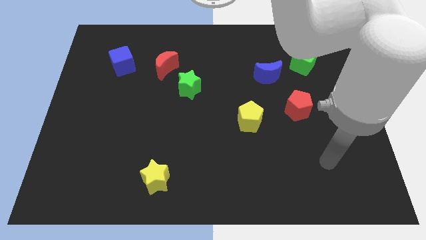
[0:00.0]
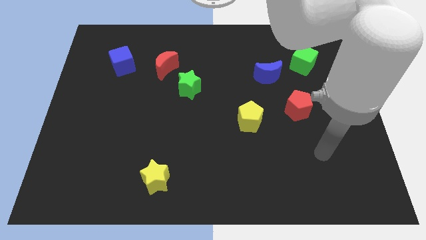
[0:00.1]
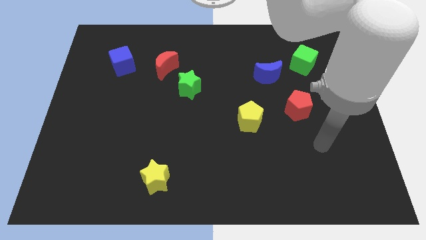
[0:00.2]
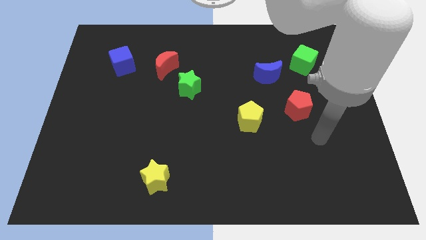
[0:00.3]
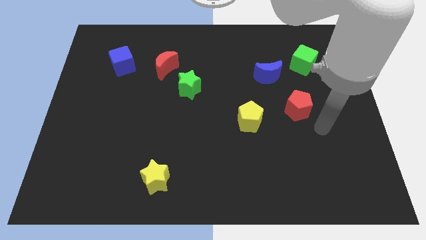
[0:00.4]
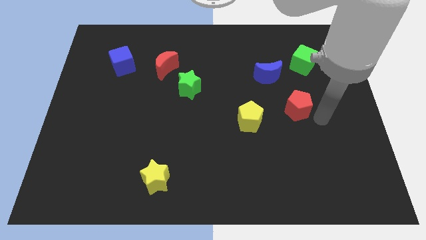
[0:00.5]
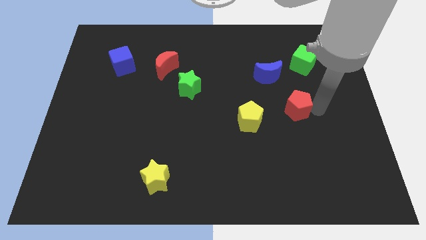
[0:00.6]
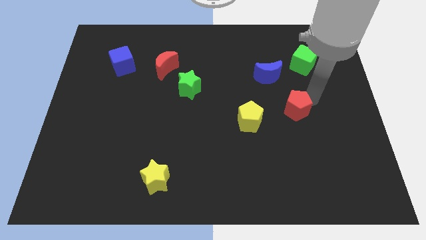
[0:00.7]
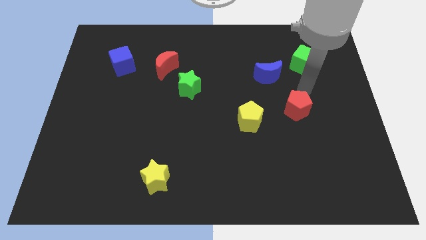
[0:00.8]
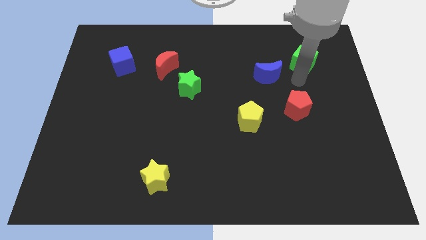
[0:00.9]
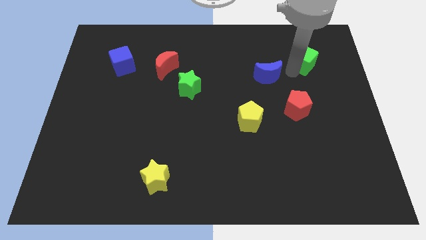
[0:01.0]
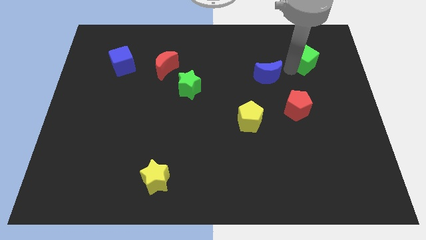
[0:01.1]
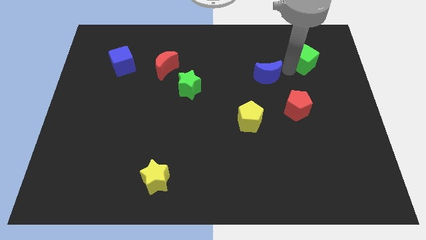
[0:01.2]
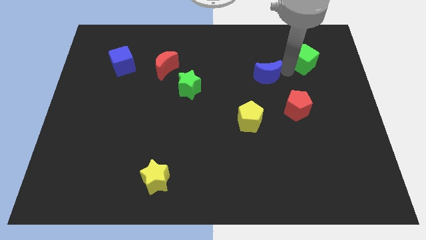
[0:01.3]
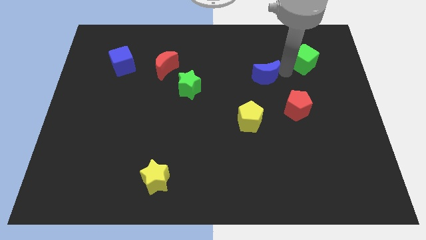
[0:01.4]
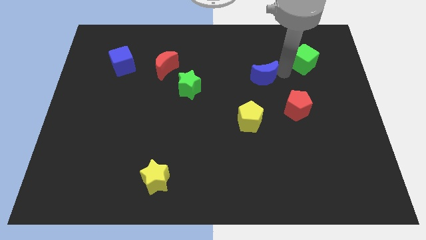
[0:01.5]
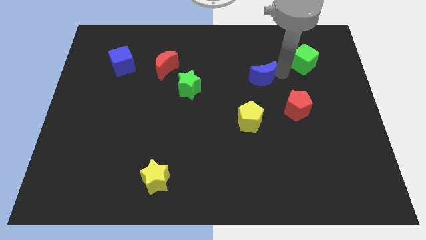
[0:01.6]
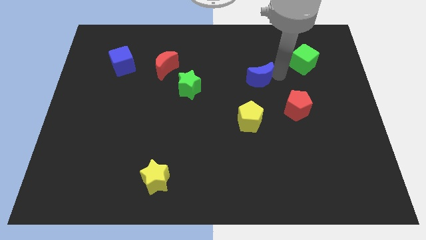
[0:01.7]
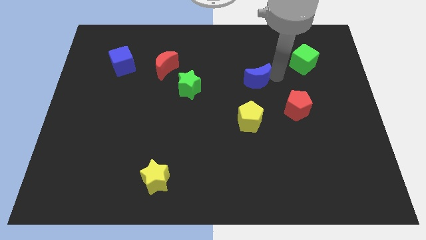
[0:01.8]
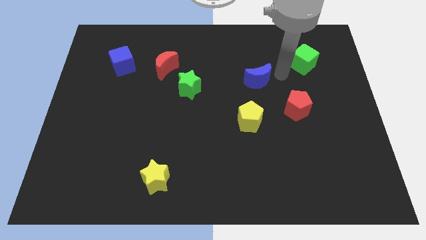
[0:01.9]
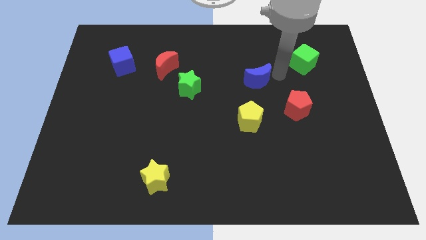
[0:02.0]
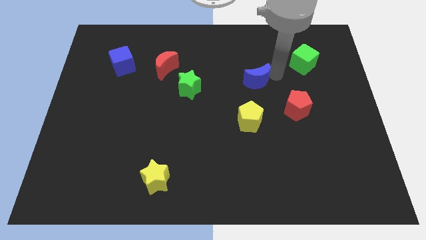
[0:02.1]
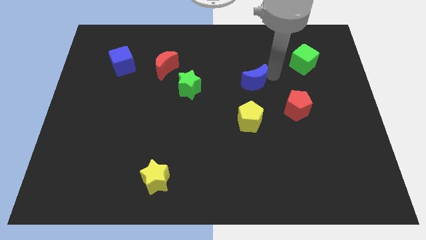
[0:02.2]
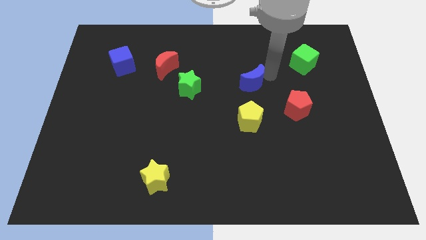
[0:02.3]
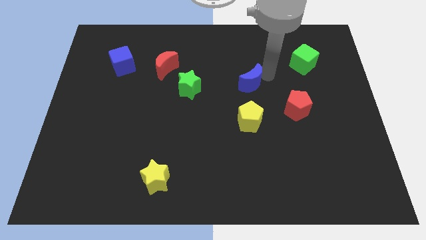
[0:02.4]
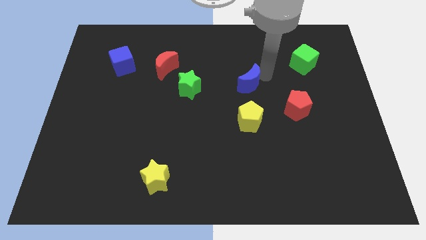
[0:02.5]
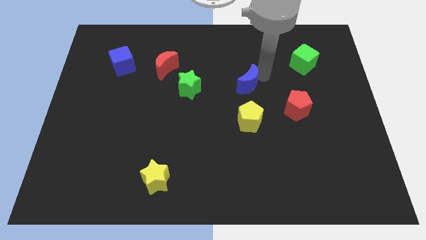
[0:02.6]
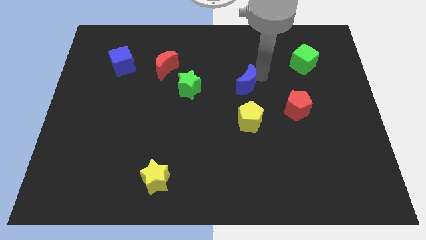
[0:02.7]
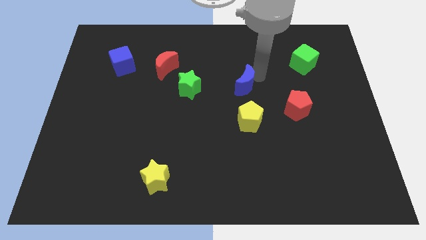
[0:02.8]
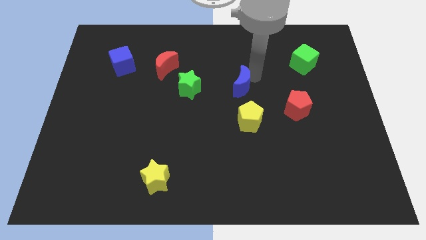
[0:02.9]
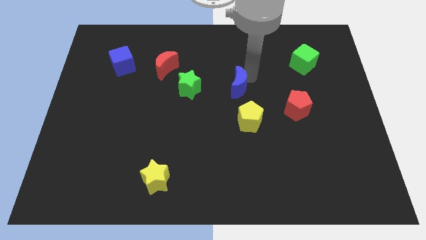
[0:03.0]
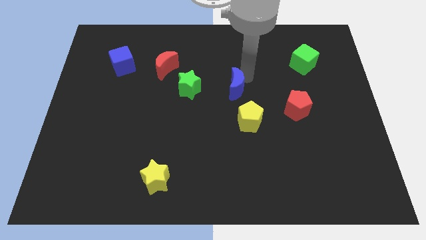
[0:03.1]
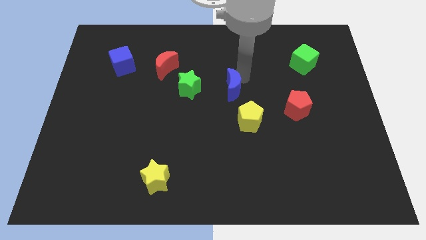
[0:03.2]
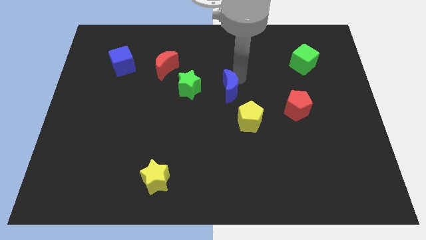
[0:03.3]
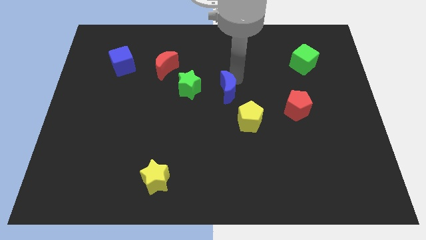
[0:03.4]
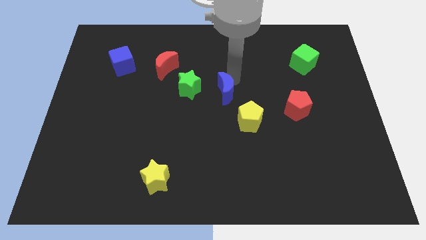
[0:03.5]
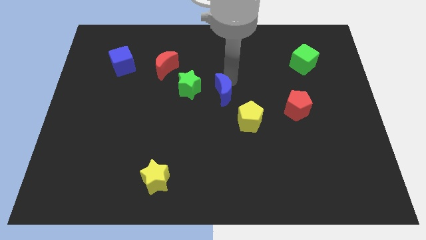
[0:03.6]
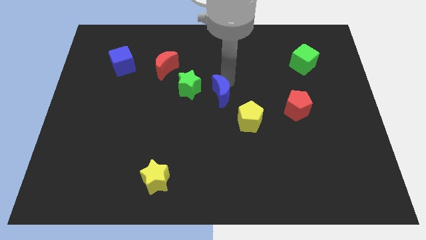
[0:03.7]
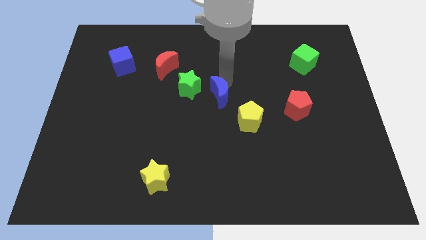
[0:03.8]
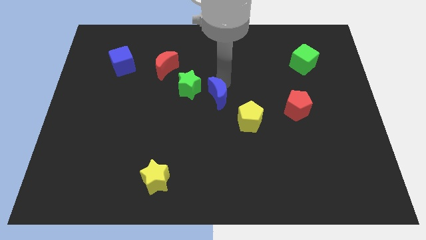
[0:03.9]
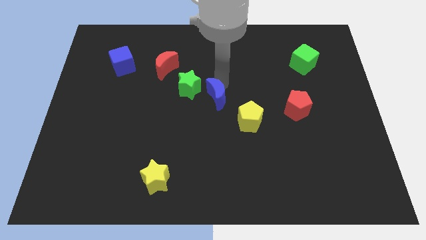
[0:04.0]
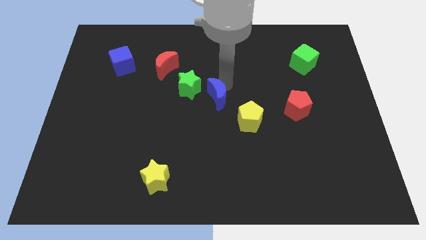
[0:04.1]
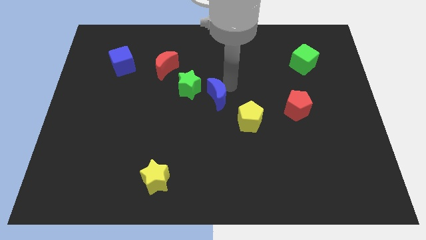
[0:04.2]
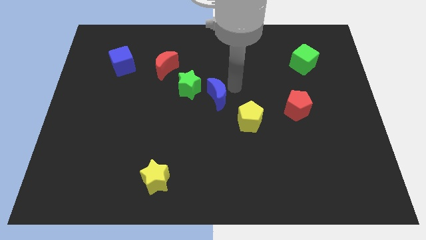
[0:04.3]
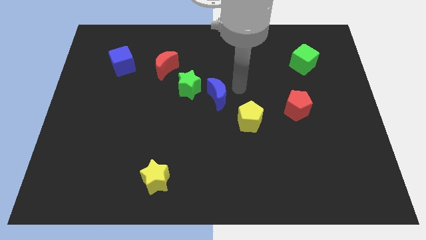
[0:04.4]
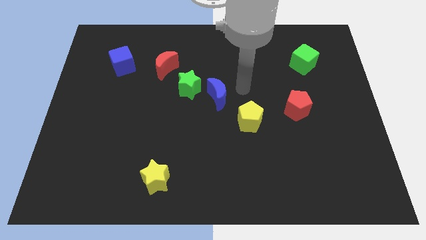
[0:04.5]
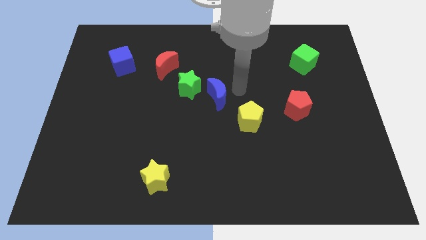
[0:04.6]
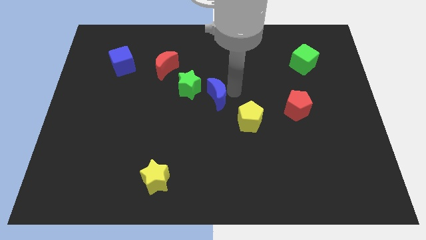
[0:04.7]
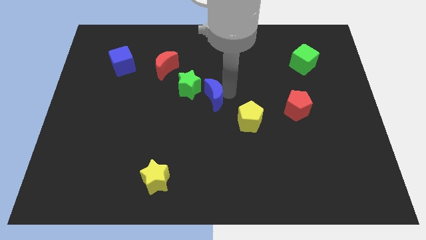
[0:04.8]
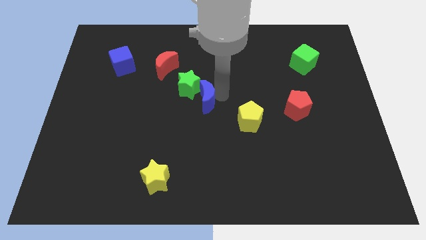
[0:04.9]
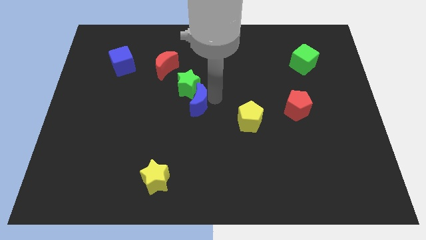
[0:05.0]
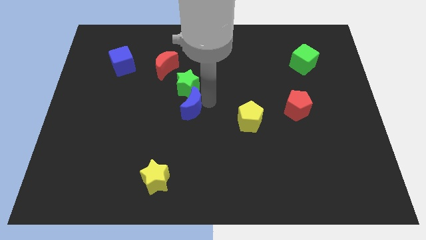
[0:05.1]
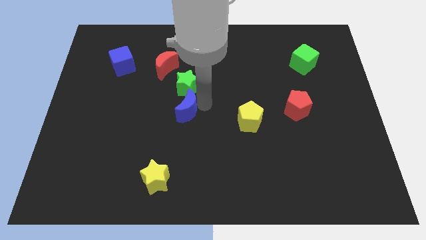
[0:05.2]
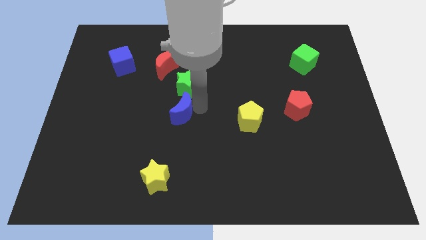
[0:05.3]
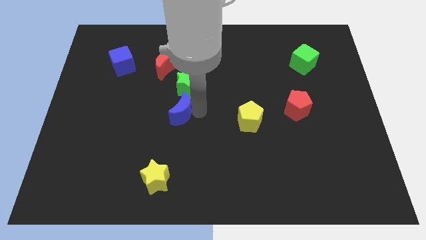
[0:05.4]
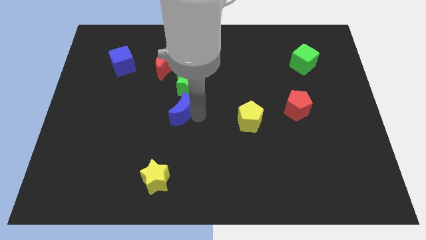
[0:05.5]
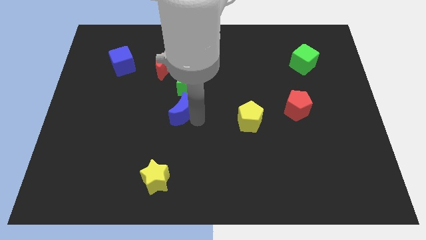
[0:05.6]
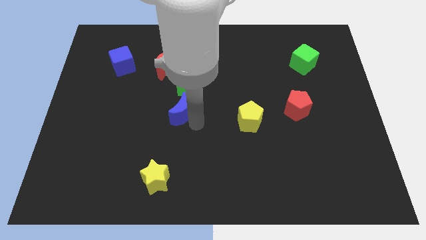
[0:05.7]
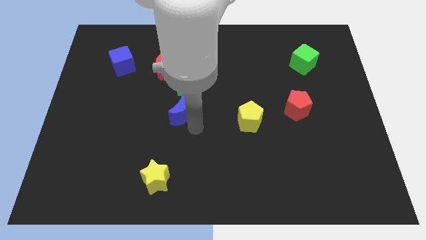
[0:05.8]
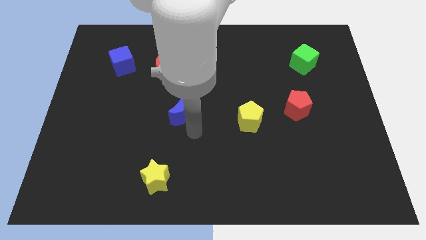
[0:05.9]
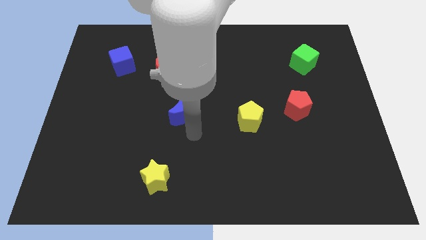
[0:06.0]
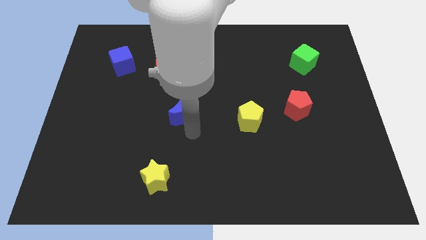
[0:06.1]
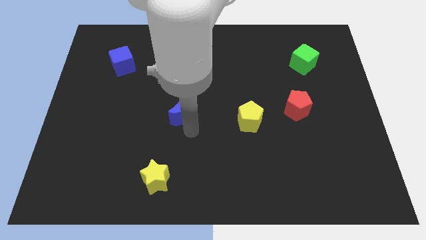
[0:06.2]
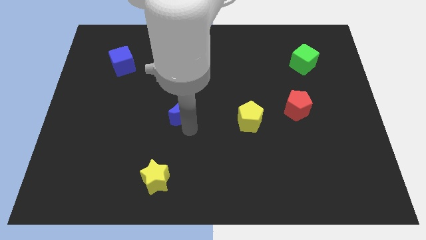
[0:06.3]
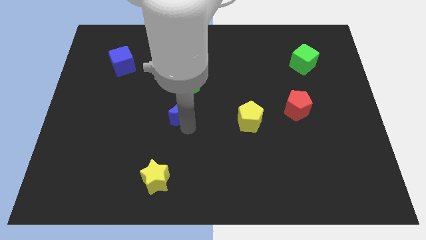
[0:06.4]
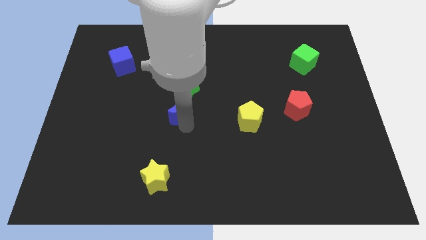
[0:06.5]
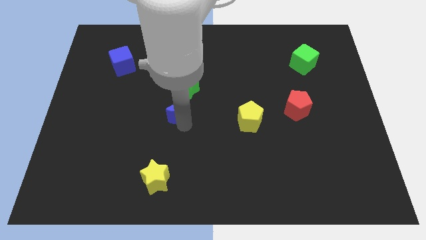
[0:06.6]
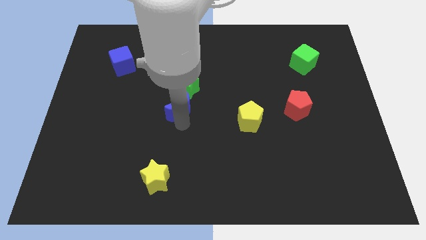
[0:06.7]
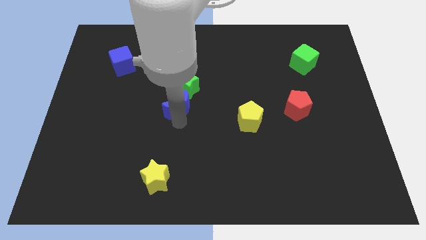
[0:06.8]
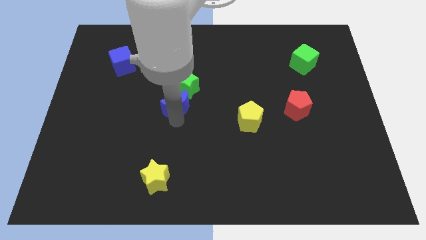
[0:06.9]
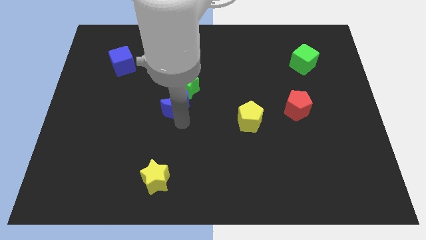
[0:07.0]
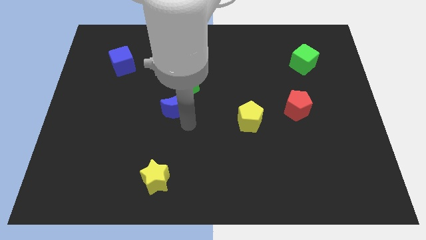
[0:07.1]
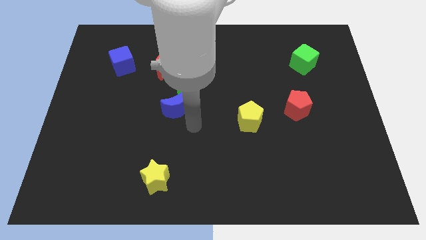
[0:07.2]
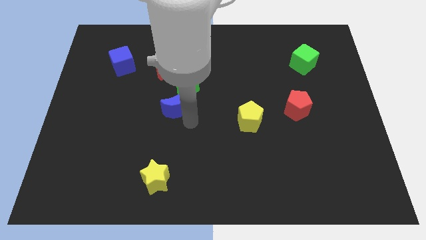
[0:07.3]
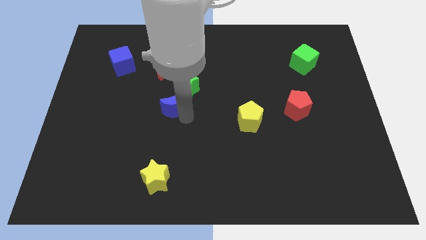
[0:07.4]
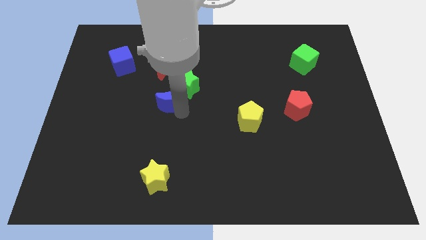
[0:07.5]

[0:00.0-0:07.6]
slide the blue moon to the left

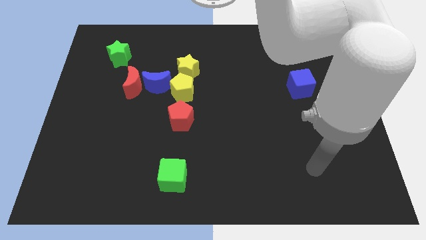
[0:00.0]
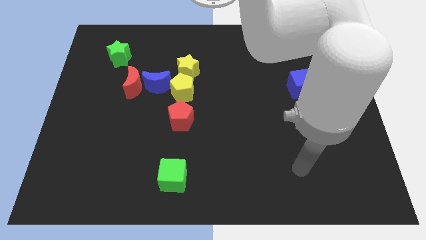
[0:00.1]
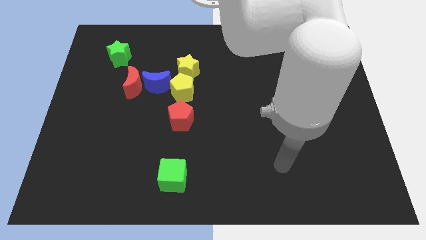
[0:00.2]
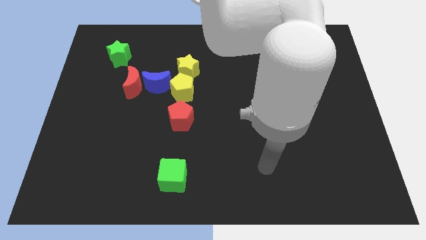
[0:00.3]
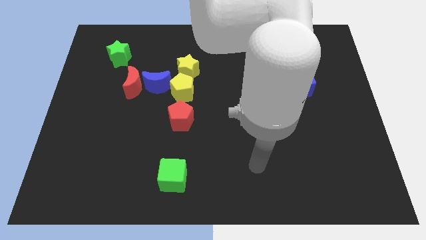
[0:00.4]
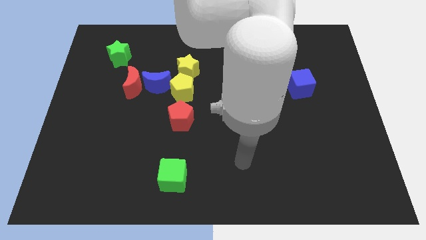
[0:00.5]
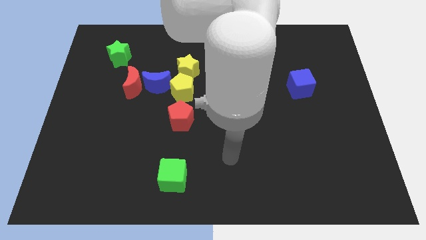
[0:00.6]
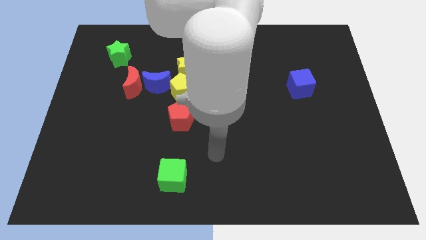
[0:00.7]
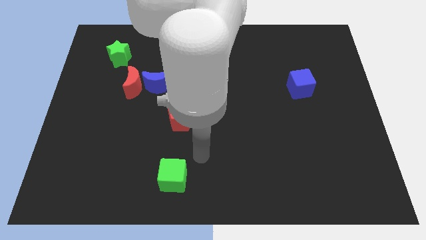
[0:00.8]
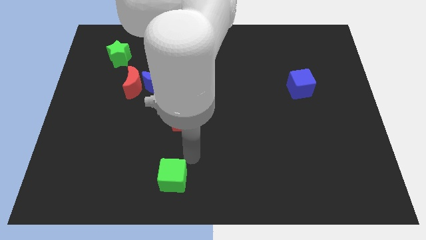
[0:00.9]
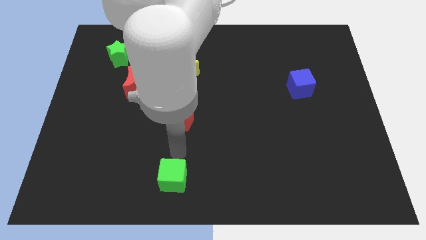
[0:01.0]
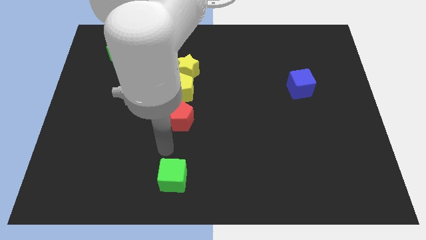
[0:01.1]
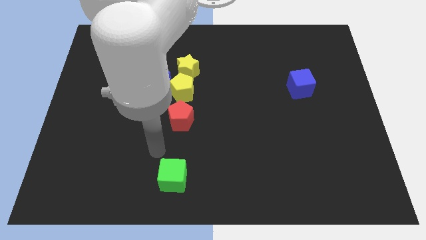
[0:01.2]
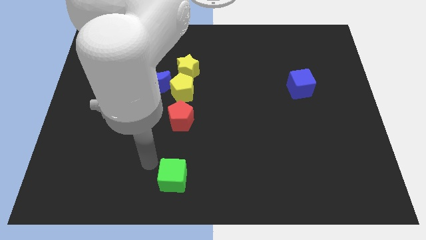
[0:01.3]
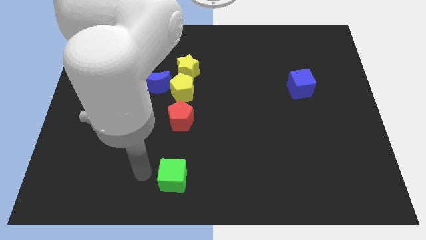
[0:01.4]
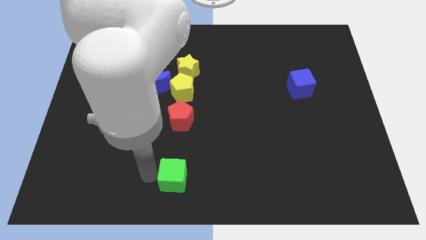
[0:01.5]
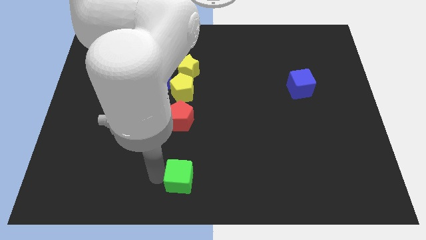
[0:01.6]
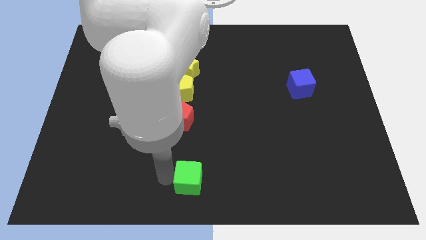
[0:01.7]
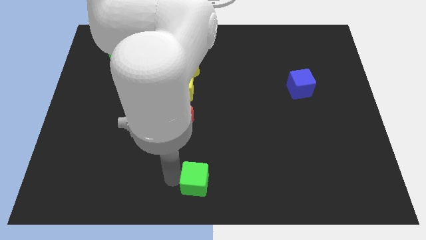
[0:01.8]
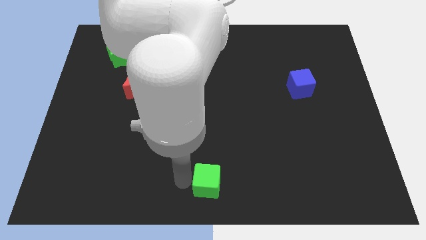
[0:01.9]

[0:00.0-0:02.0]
slightly slide the green cube to the right
